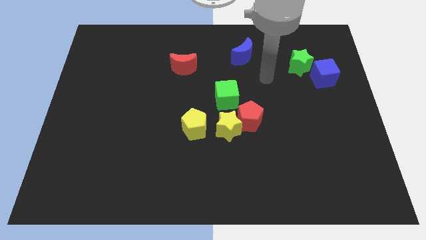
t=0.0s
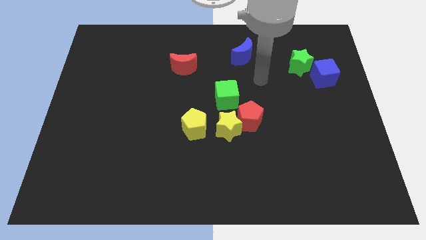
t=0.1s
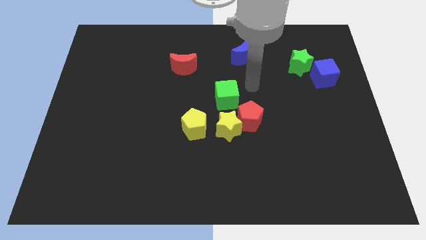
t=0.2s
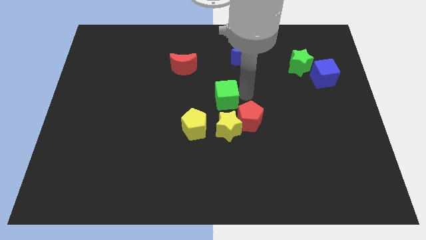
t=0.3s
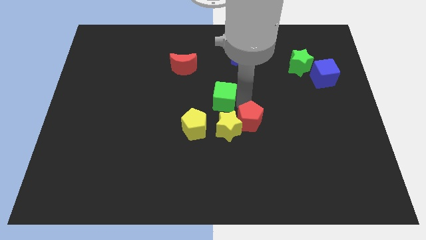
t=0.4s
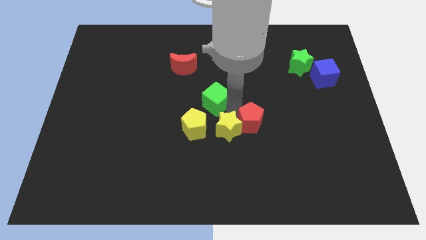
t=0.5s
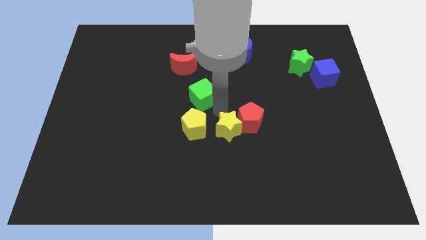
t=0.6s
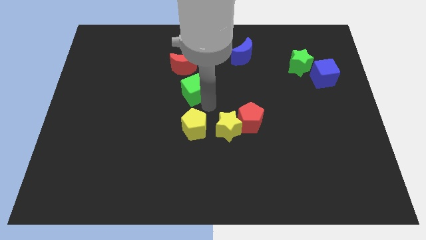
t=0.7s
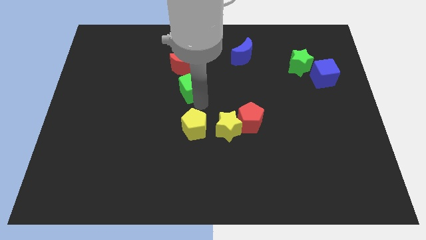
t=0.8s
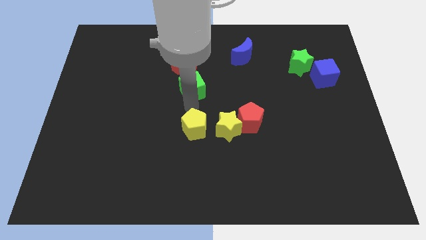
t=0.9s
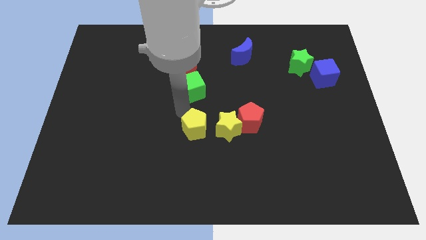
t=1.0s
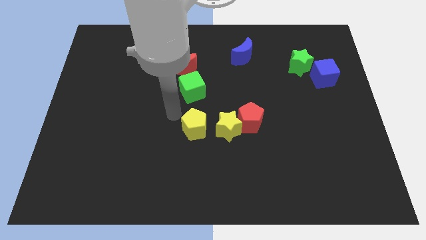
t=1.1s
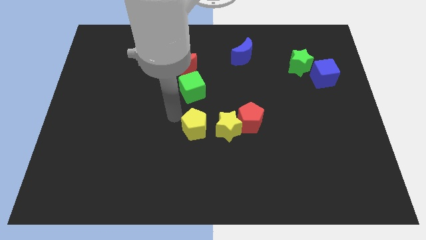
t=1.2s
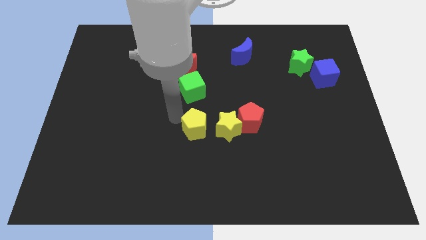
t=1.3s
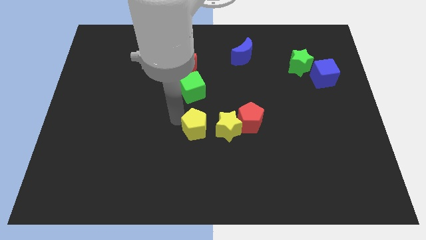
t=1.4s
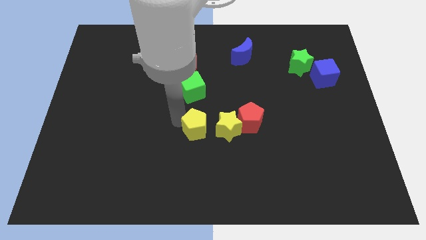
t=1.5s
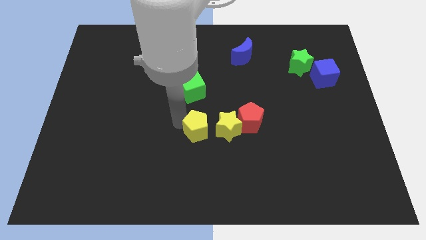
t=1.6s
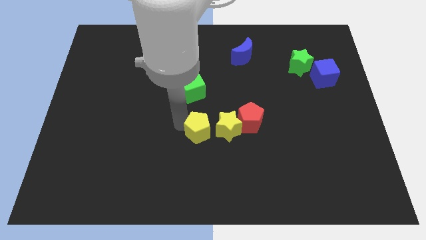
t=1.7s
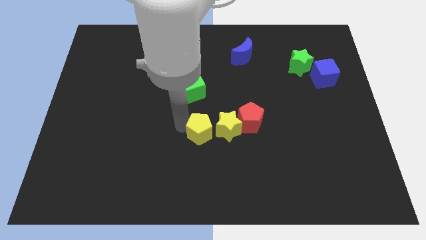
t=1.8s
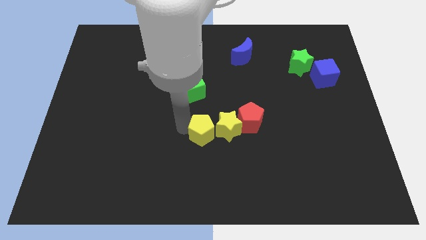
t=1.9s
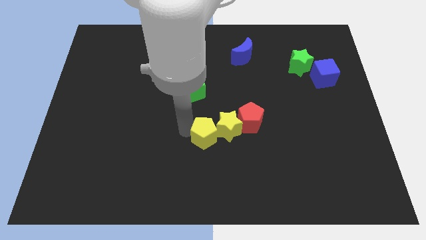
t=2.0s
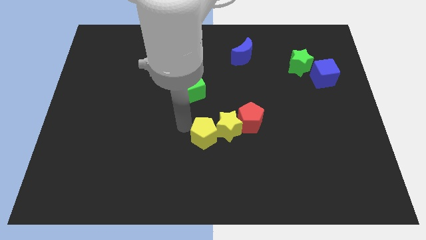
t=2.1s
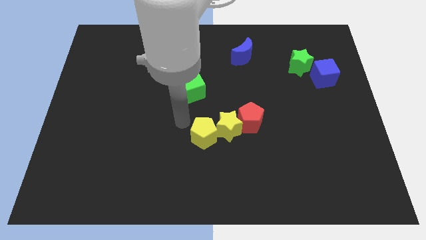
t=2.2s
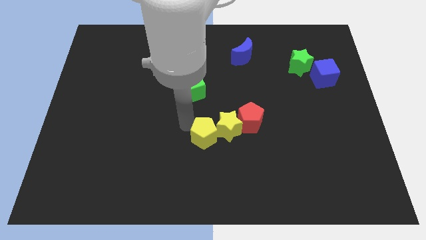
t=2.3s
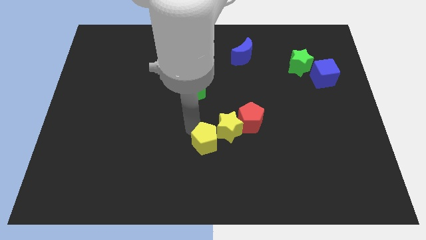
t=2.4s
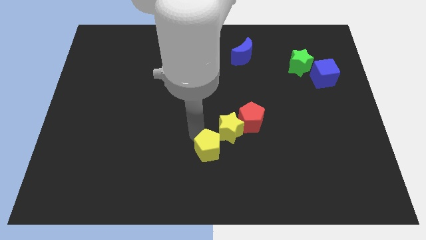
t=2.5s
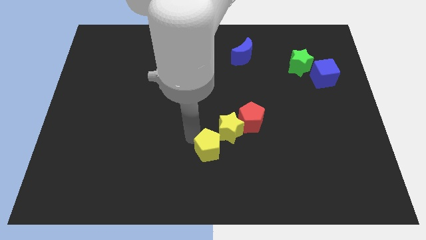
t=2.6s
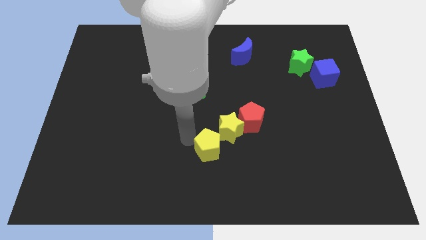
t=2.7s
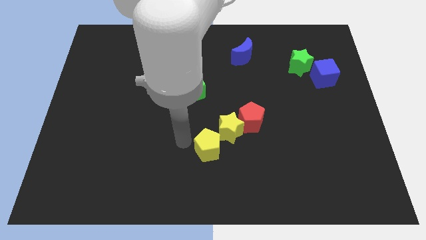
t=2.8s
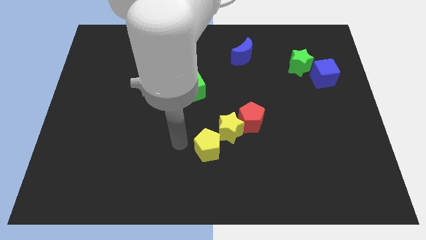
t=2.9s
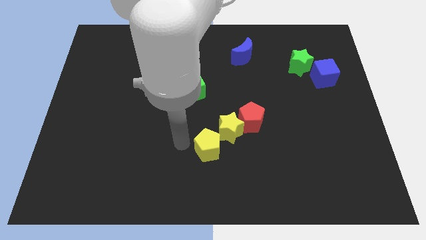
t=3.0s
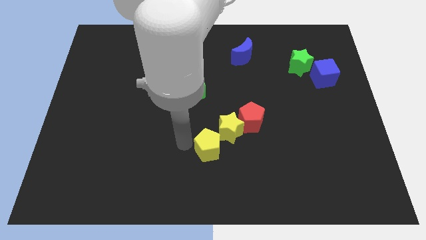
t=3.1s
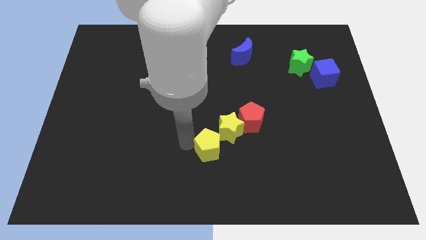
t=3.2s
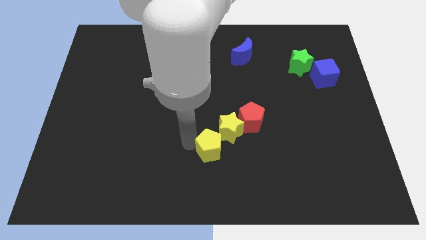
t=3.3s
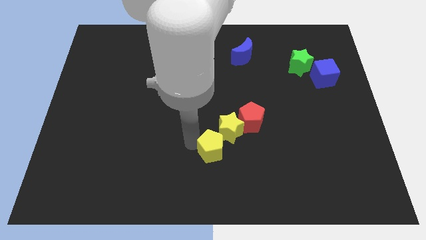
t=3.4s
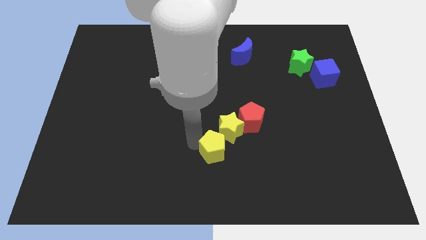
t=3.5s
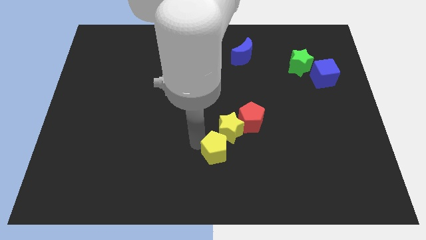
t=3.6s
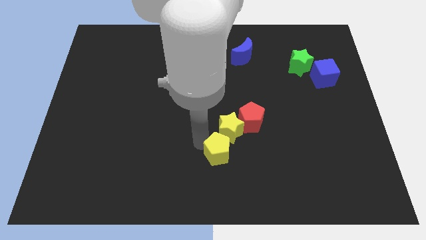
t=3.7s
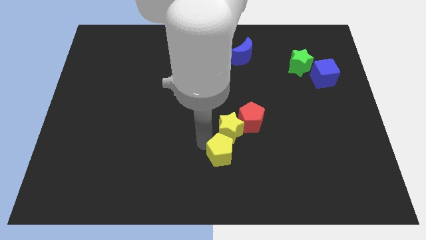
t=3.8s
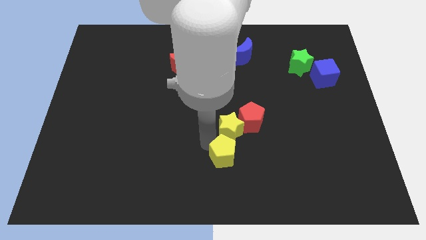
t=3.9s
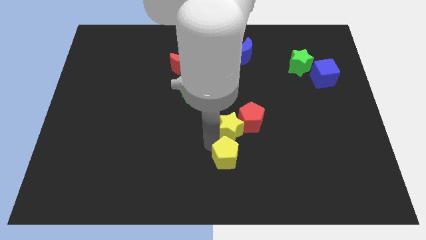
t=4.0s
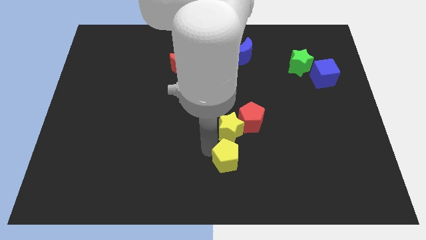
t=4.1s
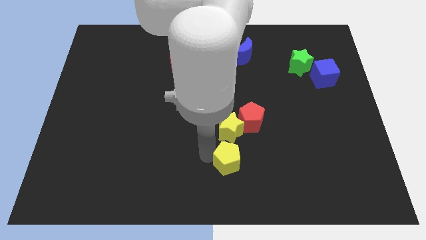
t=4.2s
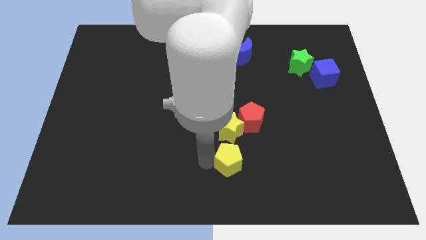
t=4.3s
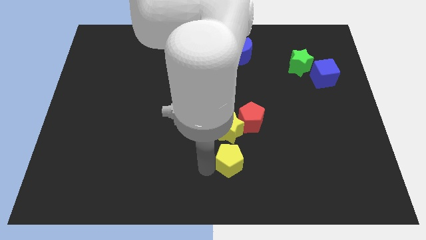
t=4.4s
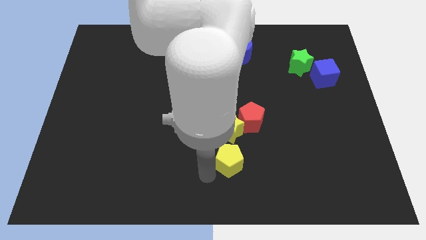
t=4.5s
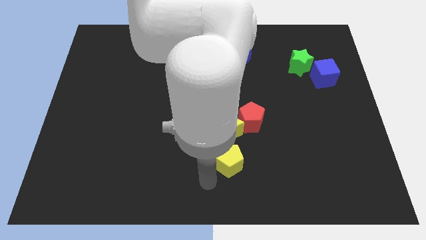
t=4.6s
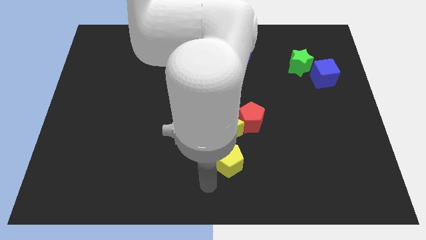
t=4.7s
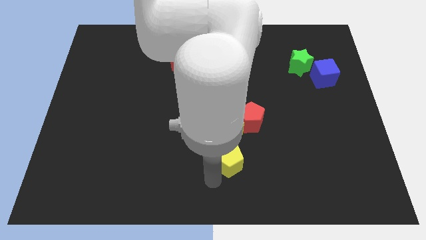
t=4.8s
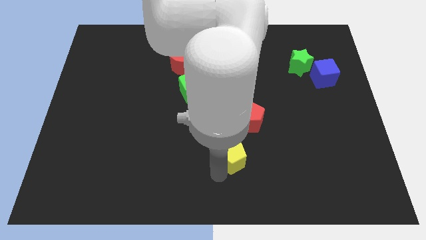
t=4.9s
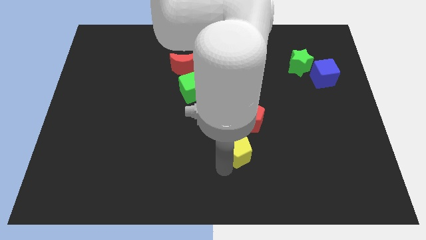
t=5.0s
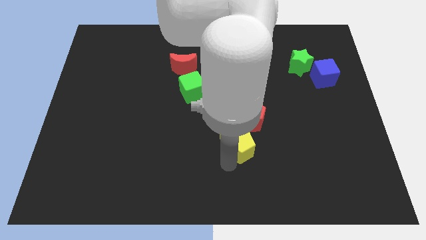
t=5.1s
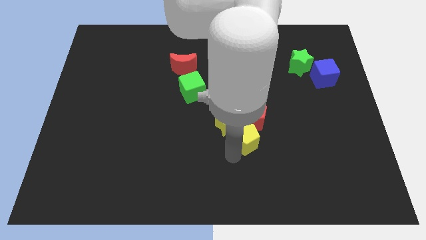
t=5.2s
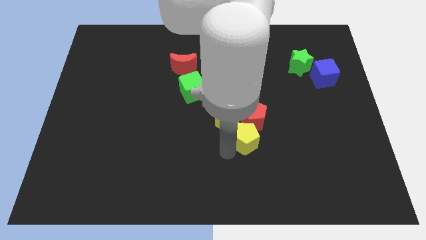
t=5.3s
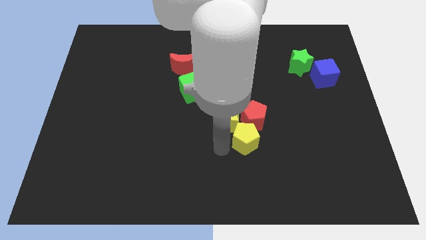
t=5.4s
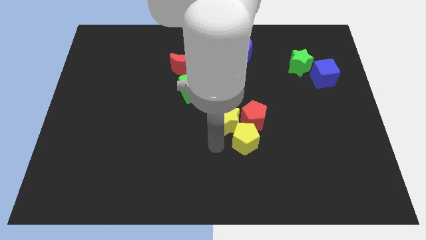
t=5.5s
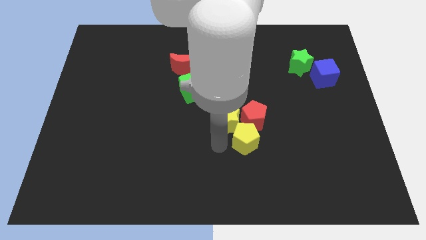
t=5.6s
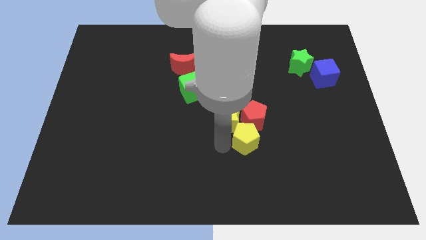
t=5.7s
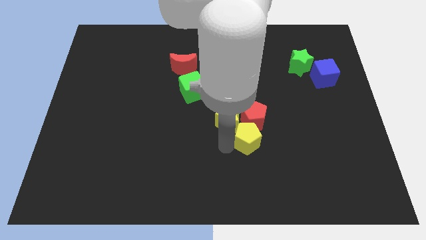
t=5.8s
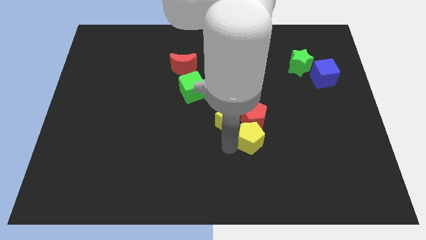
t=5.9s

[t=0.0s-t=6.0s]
push the yellow pentagon diagonally down and to the right of the red pentagon

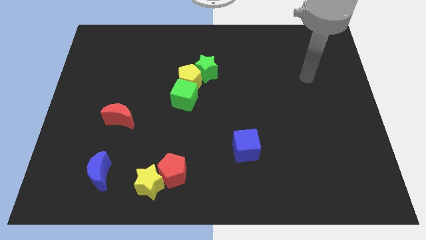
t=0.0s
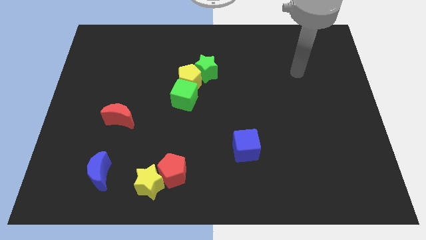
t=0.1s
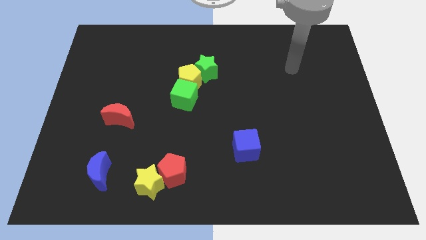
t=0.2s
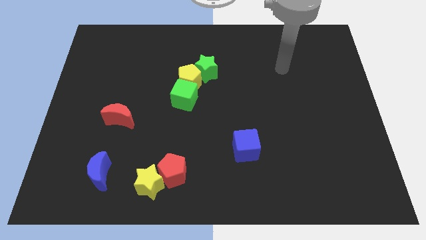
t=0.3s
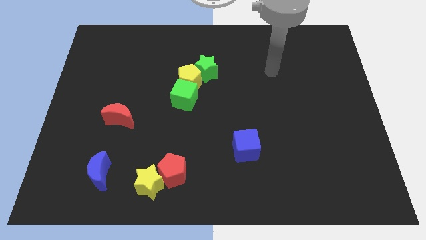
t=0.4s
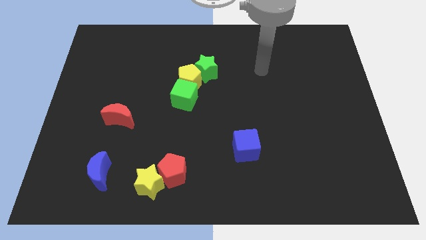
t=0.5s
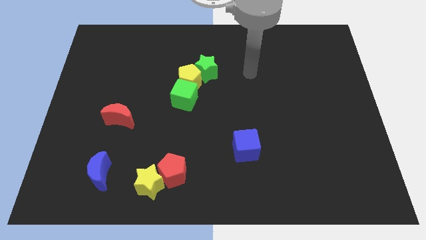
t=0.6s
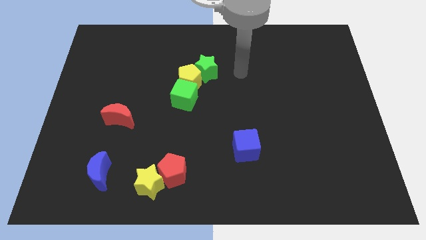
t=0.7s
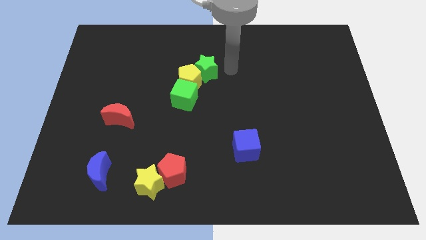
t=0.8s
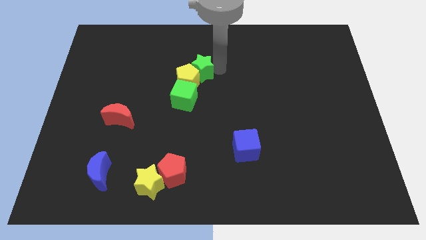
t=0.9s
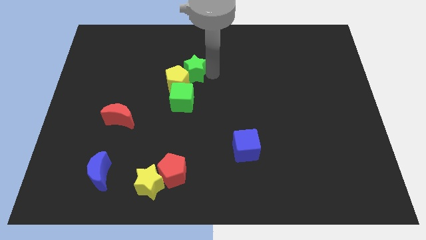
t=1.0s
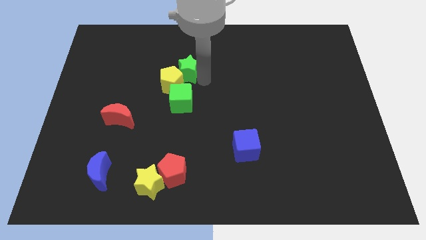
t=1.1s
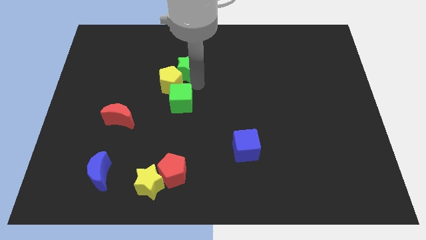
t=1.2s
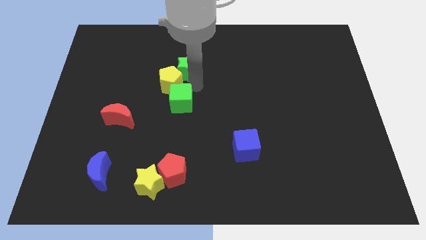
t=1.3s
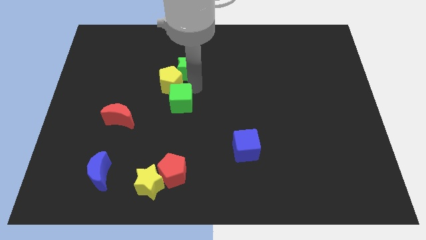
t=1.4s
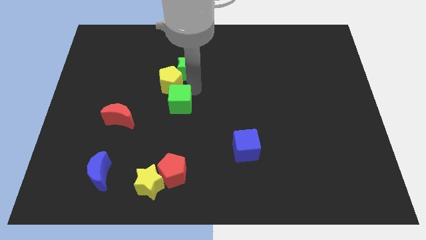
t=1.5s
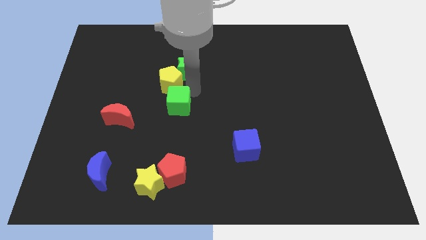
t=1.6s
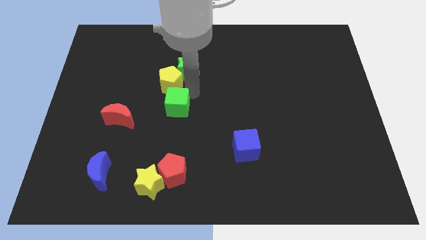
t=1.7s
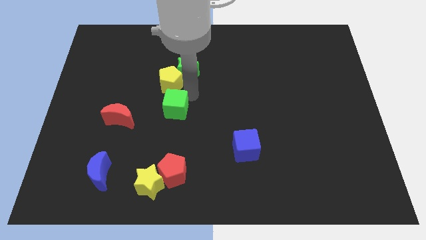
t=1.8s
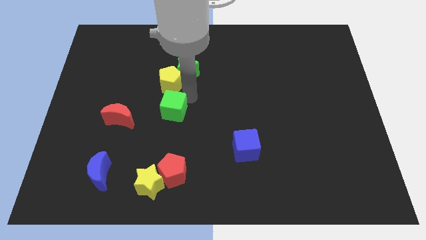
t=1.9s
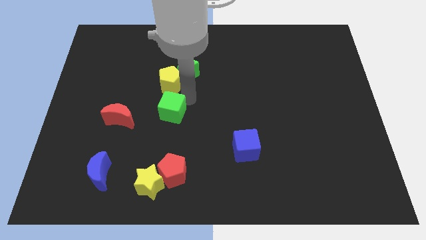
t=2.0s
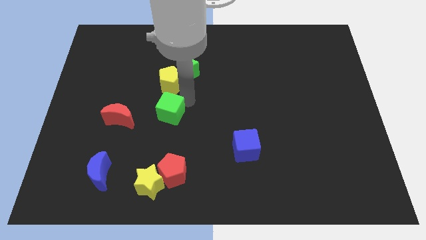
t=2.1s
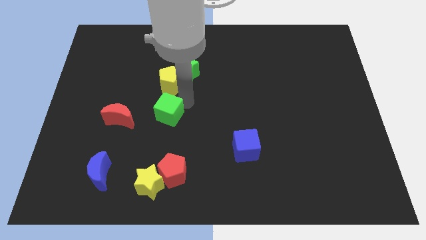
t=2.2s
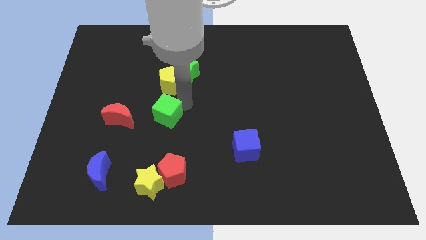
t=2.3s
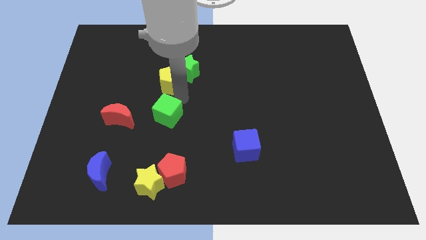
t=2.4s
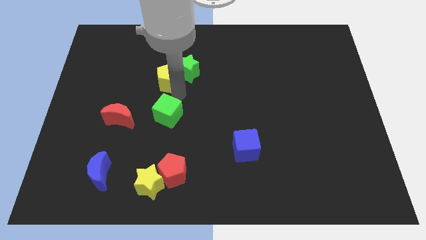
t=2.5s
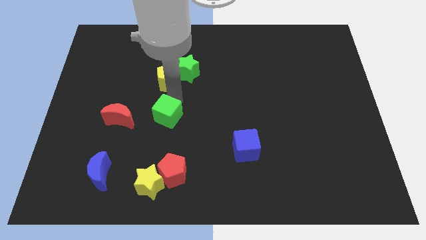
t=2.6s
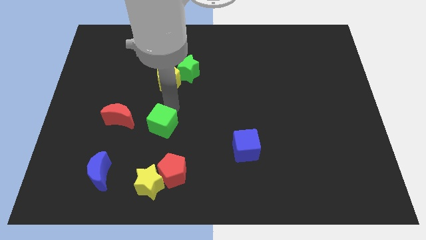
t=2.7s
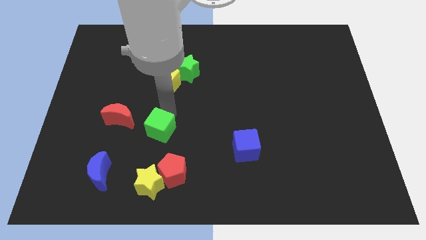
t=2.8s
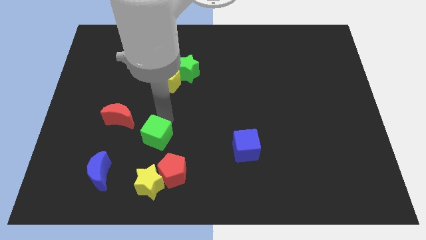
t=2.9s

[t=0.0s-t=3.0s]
slide the green cube diagonally up and to the left of the red pentagon
